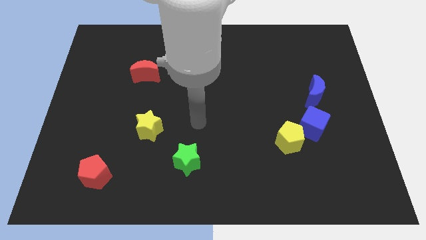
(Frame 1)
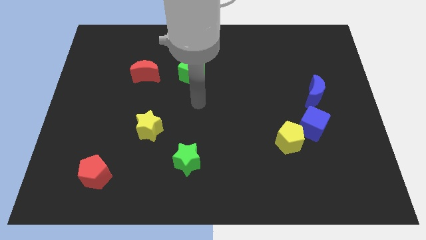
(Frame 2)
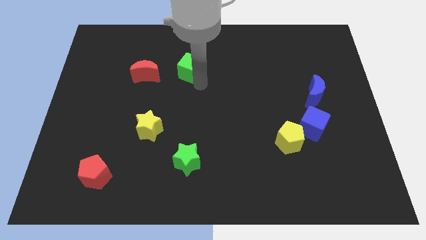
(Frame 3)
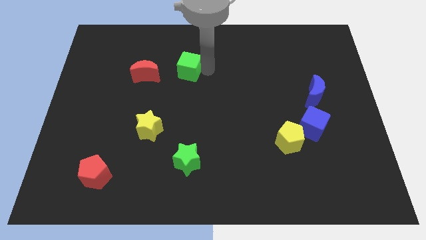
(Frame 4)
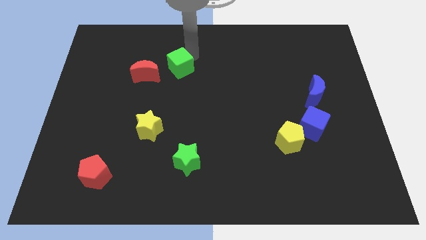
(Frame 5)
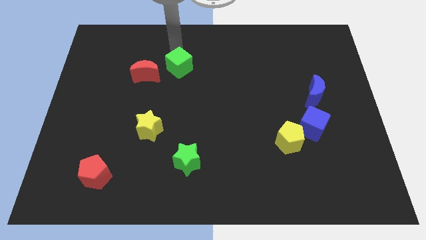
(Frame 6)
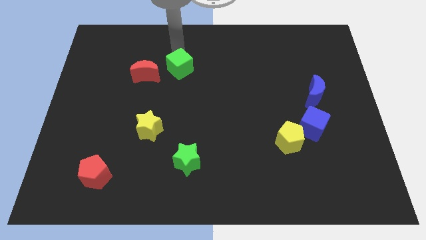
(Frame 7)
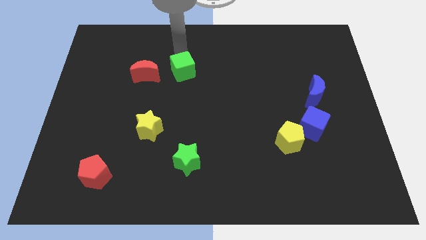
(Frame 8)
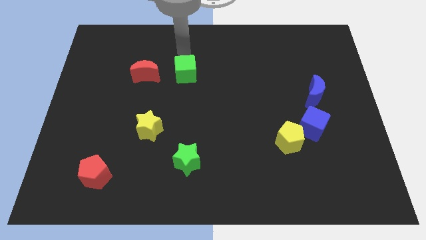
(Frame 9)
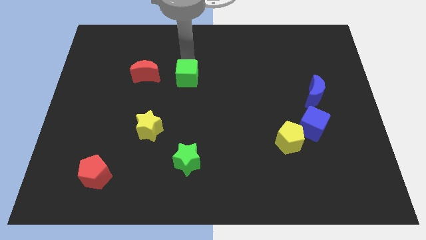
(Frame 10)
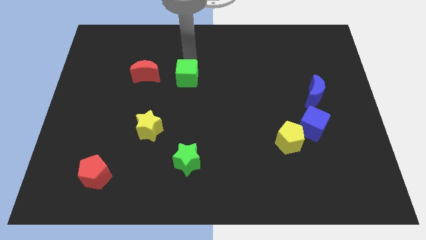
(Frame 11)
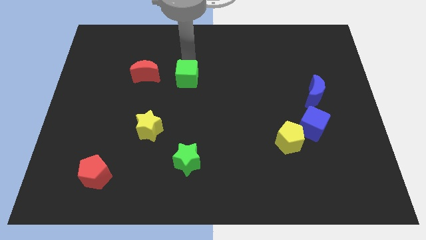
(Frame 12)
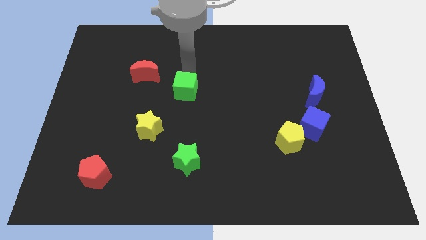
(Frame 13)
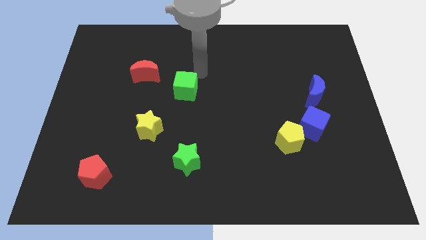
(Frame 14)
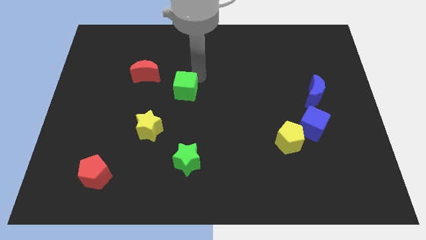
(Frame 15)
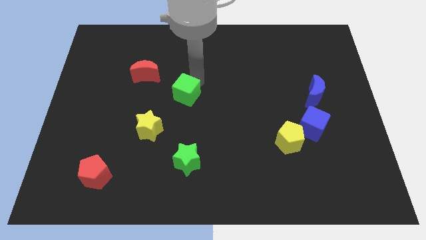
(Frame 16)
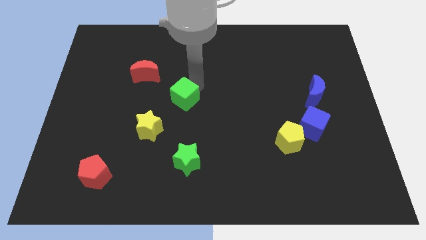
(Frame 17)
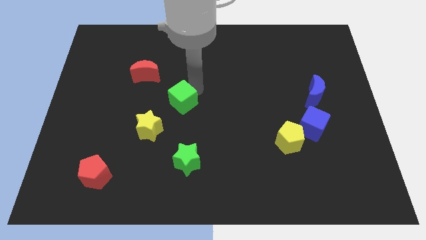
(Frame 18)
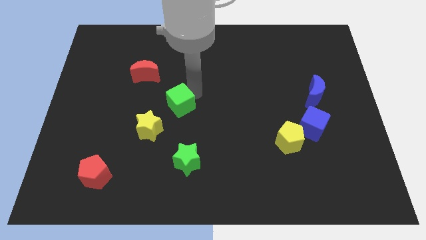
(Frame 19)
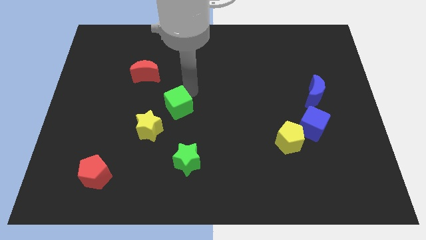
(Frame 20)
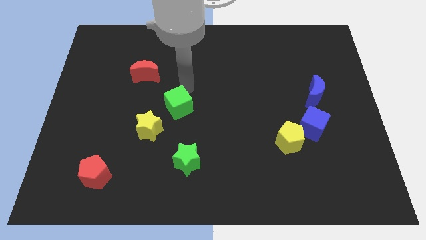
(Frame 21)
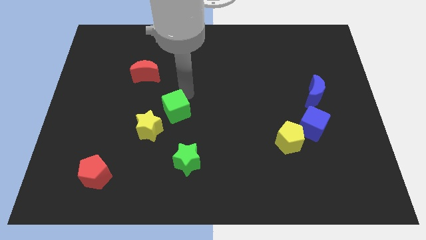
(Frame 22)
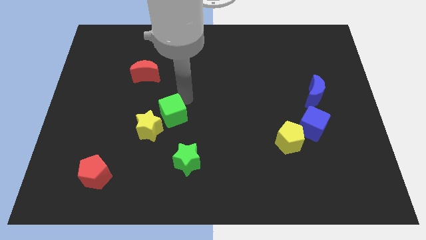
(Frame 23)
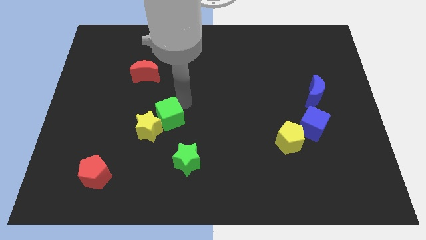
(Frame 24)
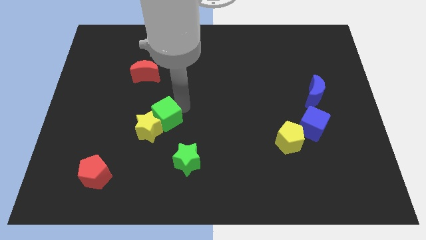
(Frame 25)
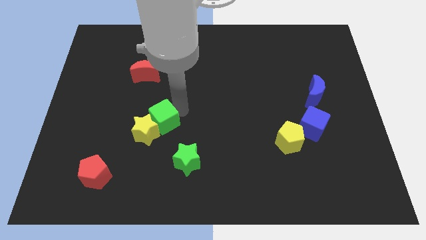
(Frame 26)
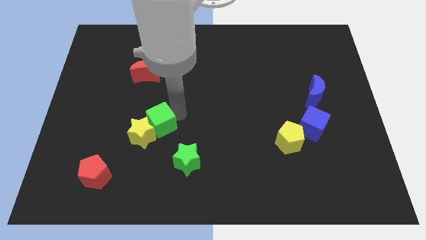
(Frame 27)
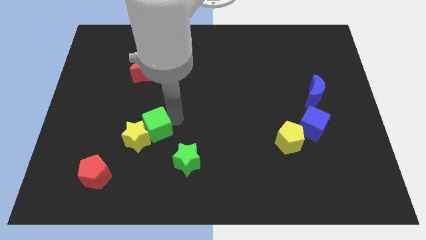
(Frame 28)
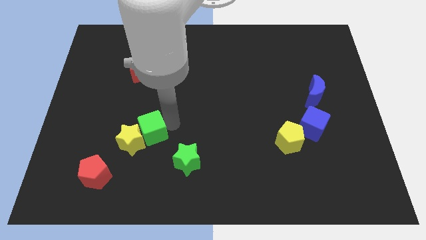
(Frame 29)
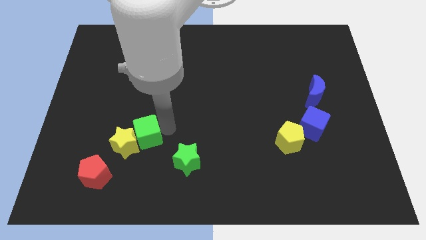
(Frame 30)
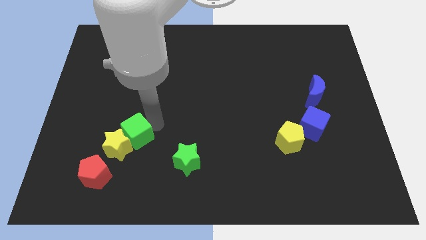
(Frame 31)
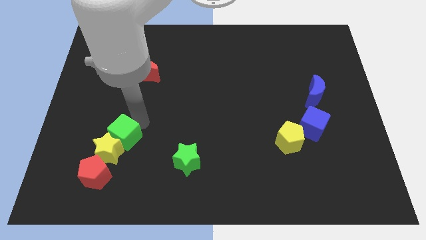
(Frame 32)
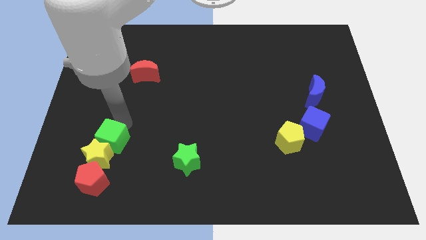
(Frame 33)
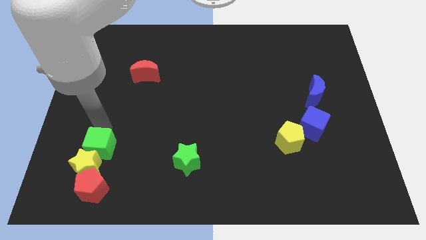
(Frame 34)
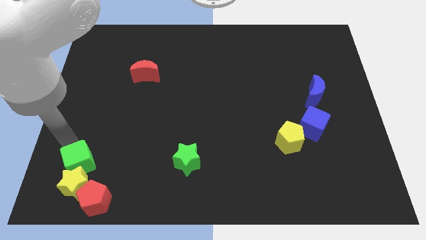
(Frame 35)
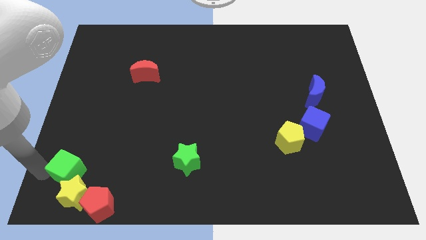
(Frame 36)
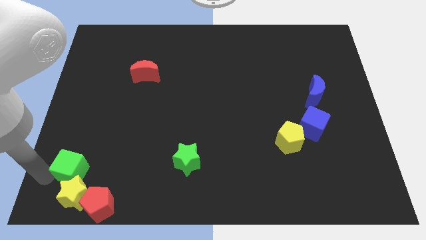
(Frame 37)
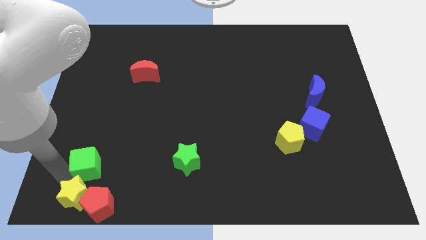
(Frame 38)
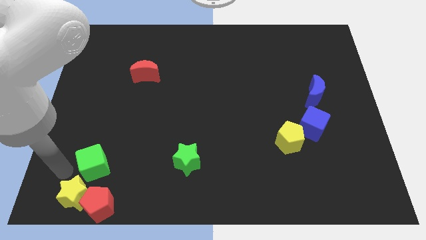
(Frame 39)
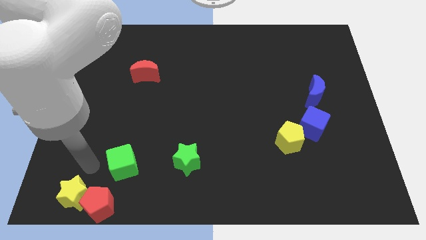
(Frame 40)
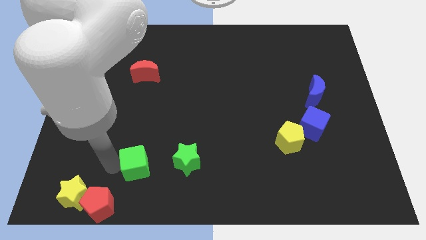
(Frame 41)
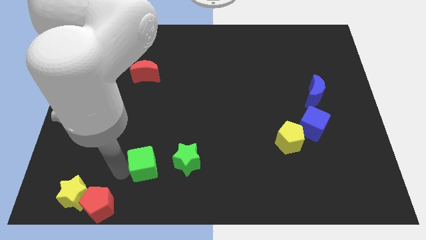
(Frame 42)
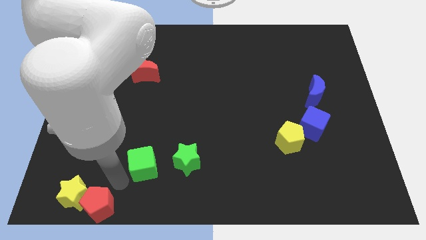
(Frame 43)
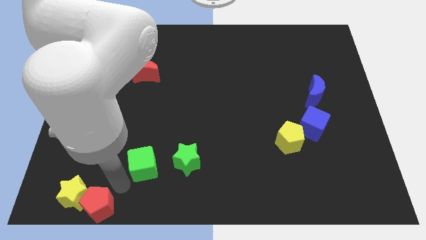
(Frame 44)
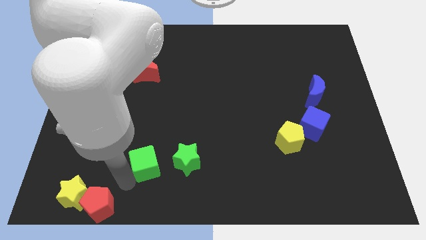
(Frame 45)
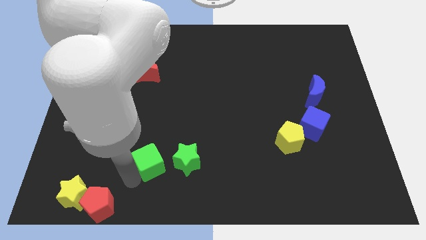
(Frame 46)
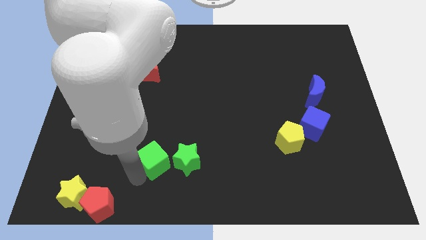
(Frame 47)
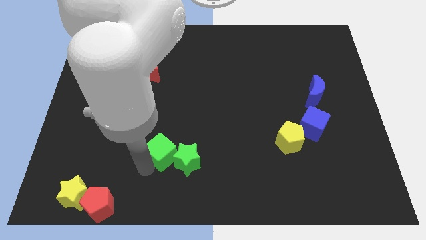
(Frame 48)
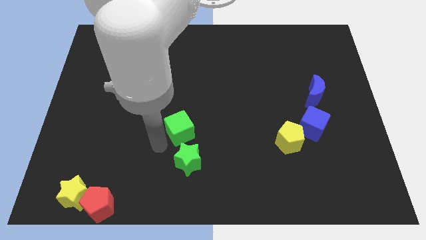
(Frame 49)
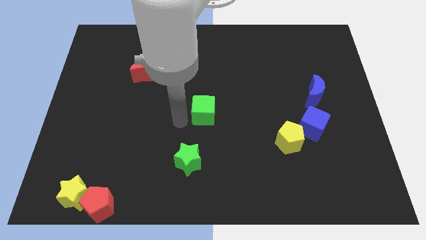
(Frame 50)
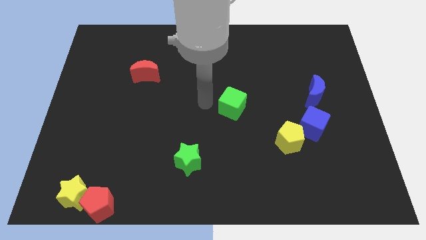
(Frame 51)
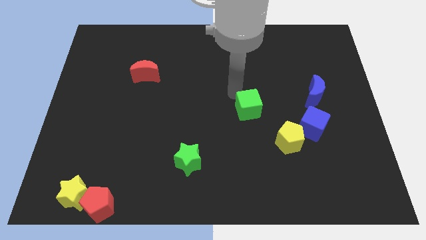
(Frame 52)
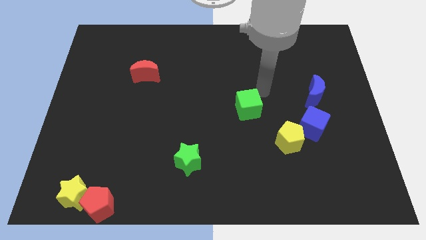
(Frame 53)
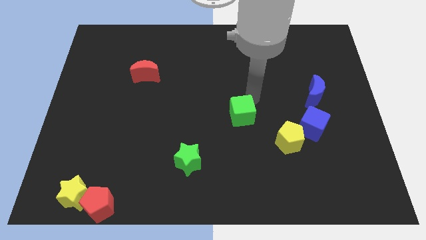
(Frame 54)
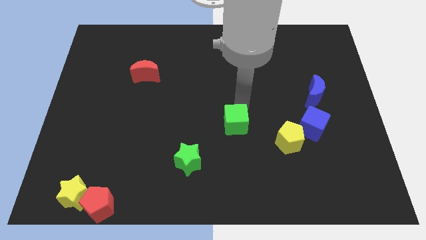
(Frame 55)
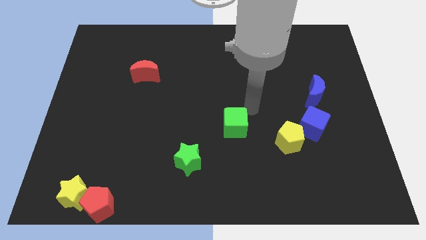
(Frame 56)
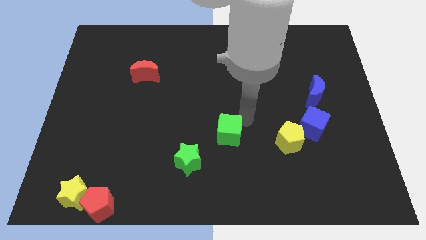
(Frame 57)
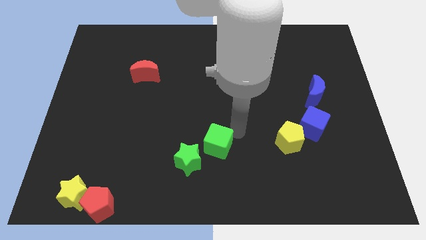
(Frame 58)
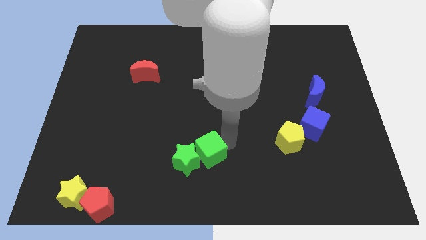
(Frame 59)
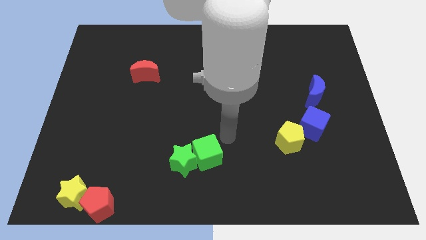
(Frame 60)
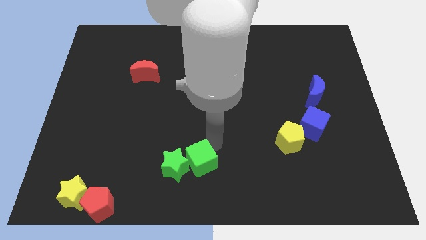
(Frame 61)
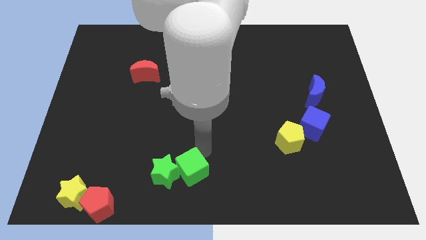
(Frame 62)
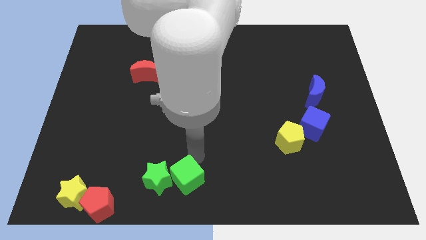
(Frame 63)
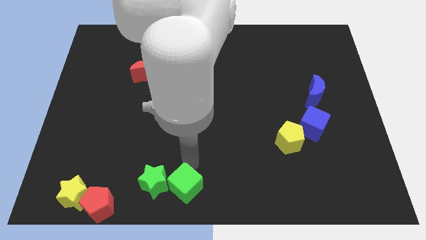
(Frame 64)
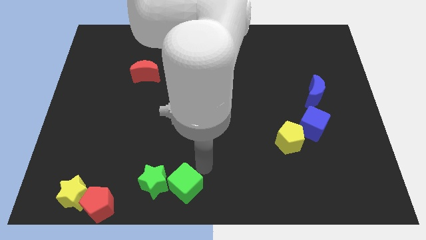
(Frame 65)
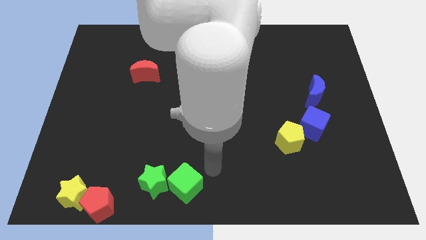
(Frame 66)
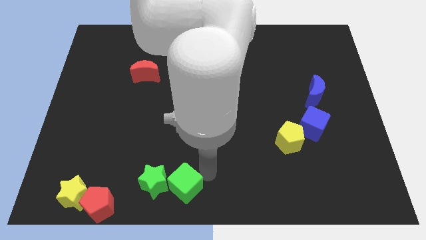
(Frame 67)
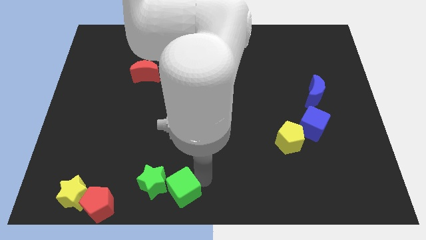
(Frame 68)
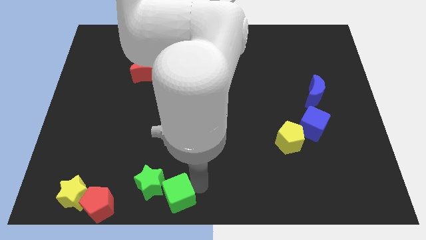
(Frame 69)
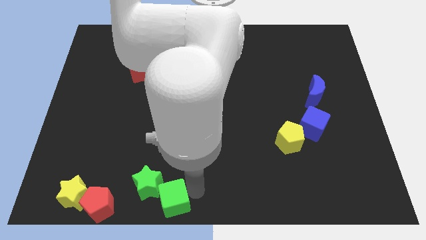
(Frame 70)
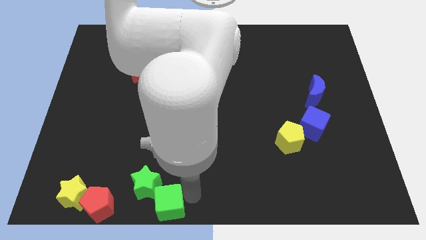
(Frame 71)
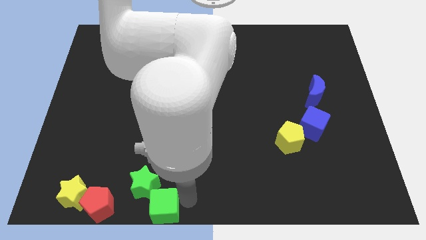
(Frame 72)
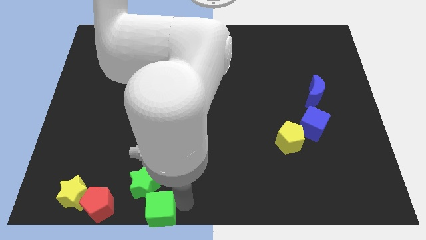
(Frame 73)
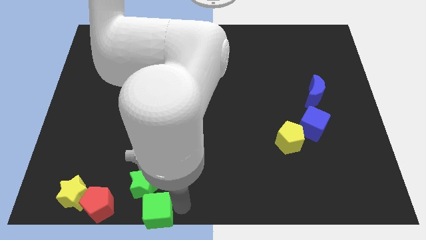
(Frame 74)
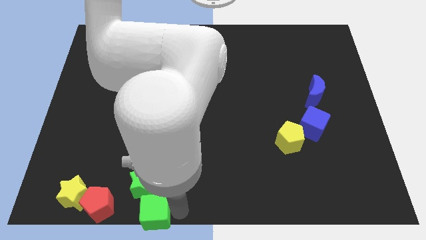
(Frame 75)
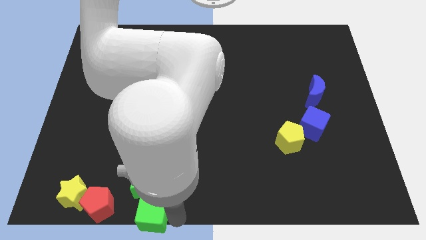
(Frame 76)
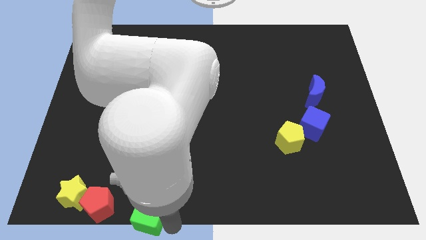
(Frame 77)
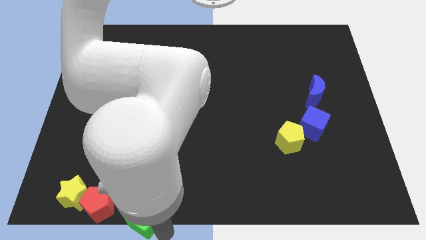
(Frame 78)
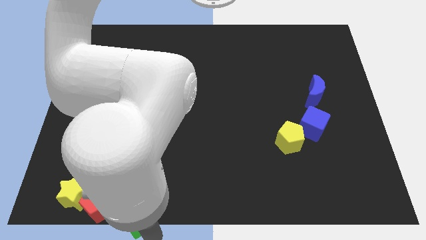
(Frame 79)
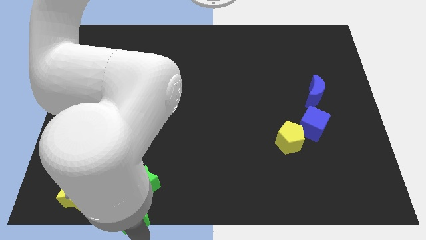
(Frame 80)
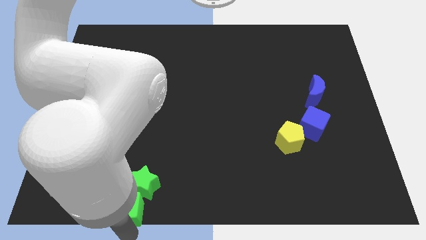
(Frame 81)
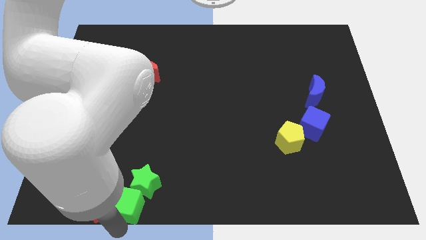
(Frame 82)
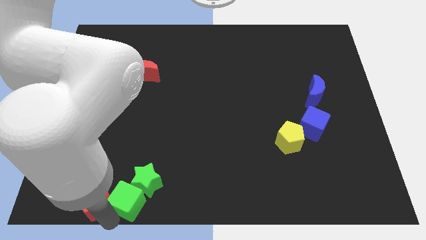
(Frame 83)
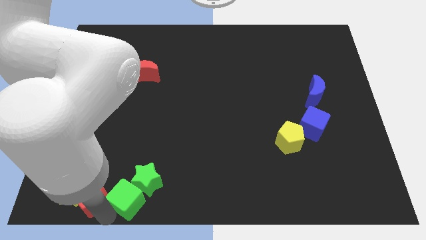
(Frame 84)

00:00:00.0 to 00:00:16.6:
move the green cube just right of the red pentagon
